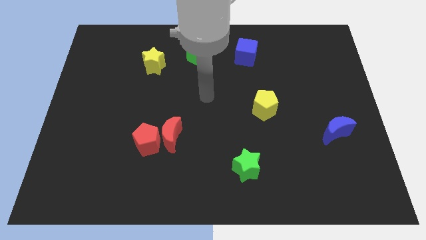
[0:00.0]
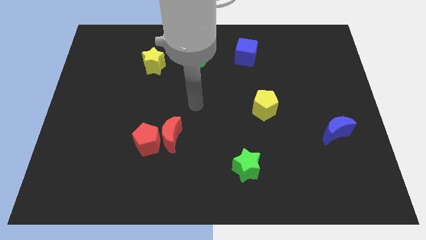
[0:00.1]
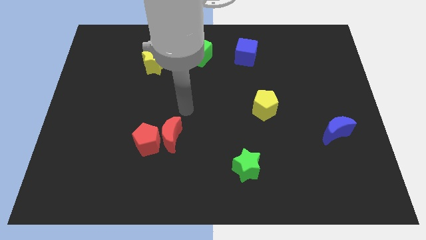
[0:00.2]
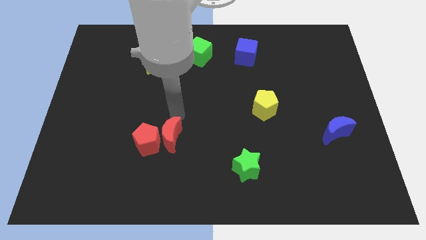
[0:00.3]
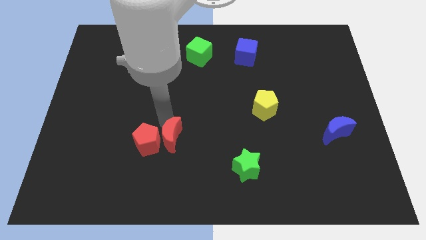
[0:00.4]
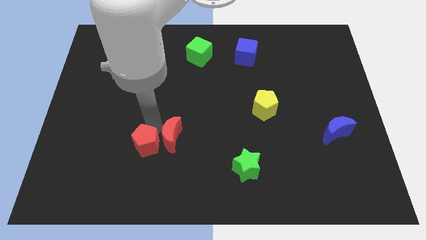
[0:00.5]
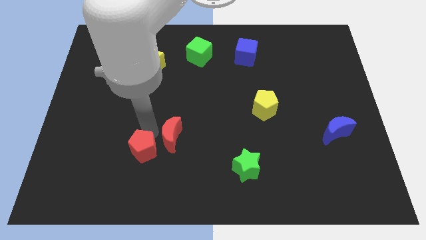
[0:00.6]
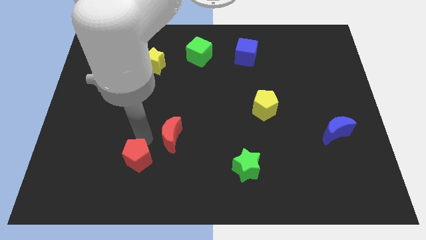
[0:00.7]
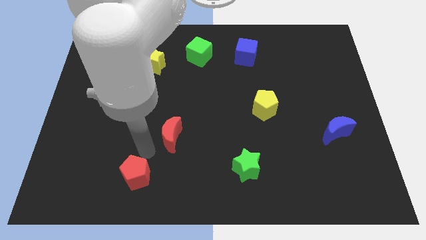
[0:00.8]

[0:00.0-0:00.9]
pull the red moon apart from the red pentagon

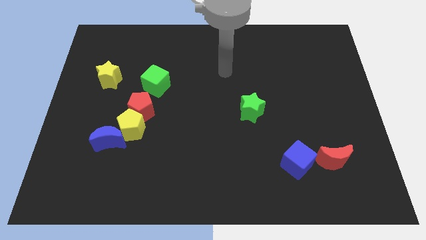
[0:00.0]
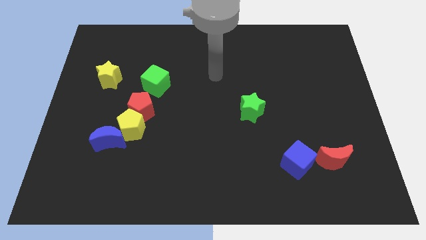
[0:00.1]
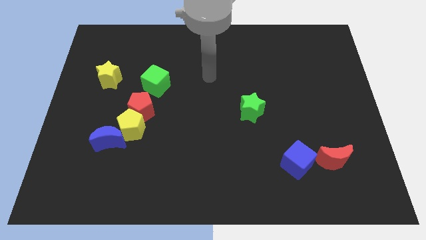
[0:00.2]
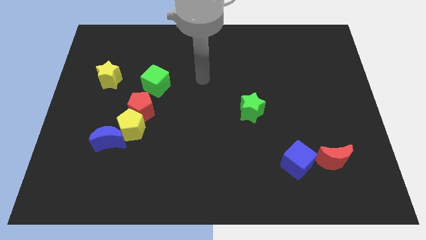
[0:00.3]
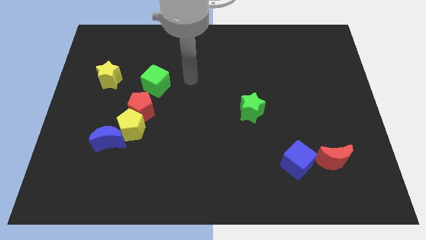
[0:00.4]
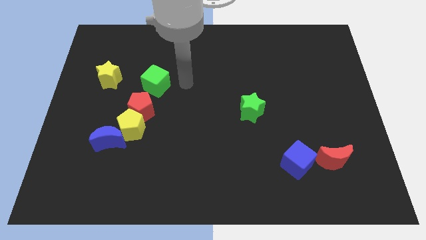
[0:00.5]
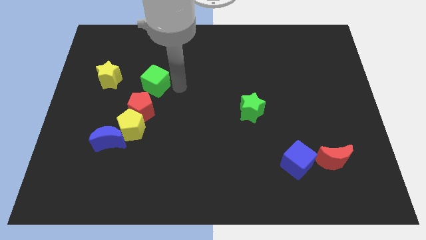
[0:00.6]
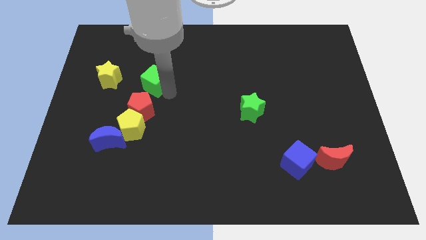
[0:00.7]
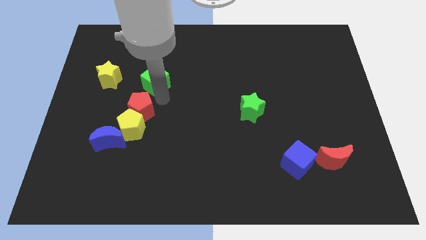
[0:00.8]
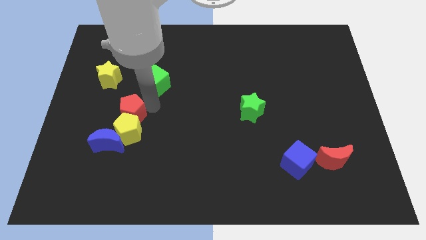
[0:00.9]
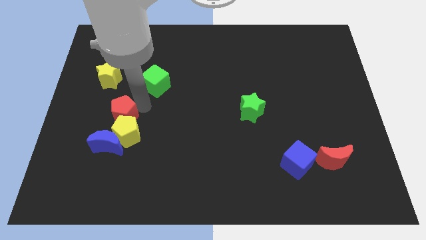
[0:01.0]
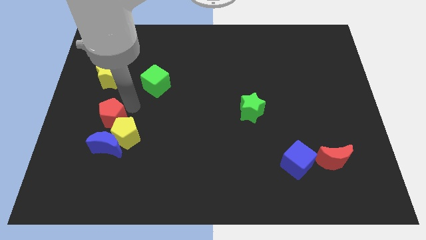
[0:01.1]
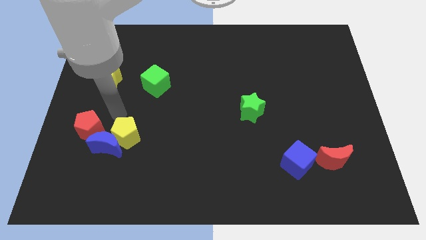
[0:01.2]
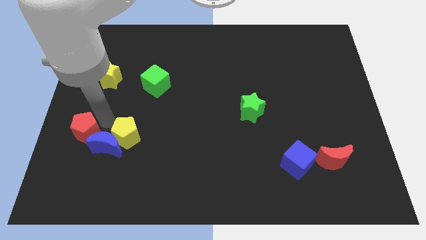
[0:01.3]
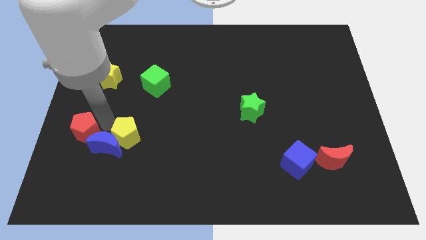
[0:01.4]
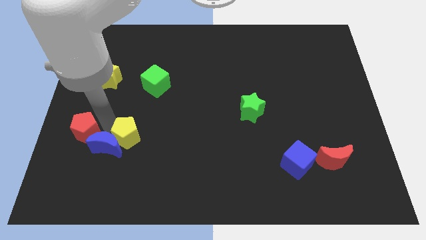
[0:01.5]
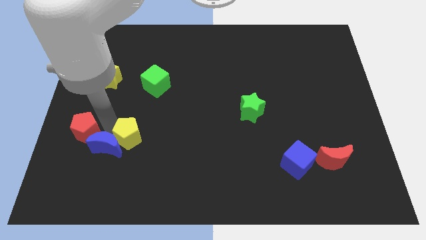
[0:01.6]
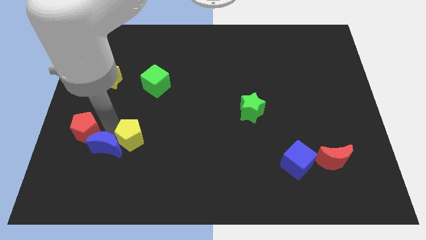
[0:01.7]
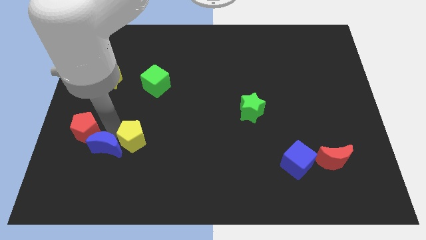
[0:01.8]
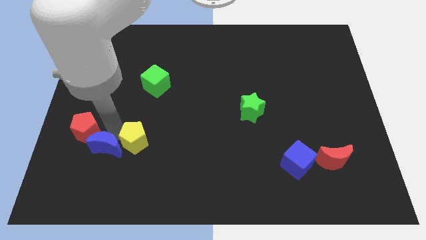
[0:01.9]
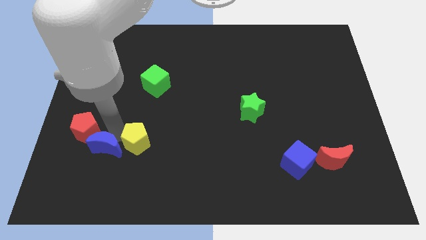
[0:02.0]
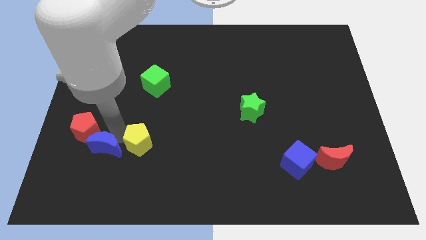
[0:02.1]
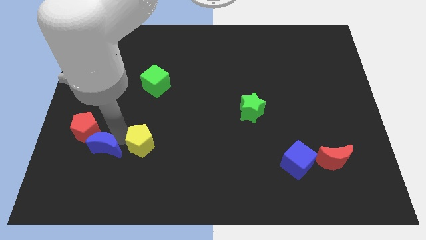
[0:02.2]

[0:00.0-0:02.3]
move the yellow pentagon away from the red pentagon and blue moon

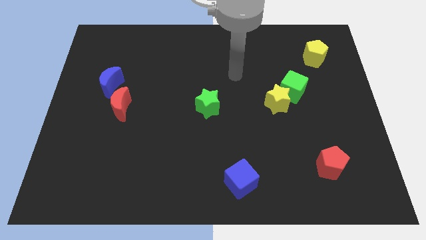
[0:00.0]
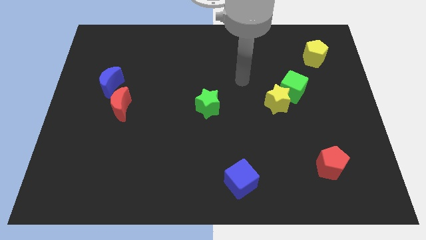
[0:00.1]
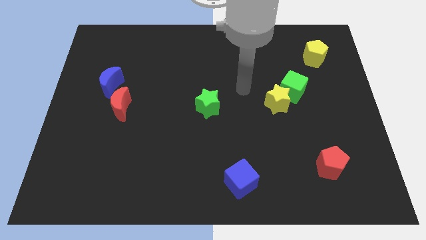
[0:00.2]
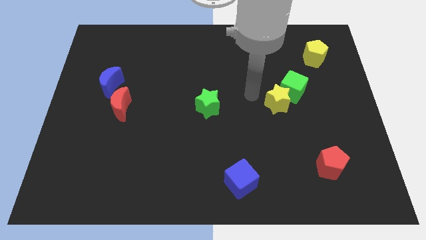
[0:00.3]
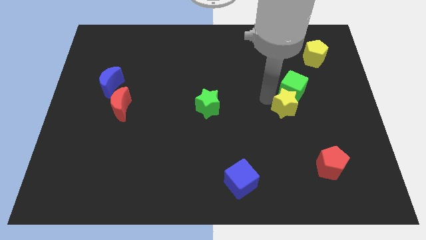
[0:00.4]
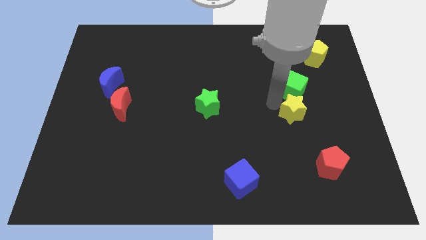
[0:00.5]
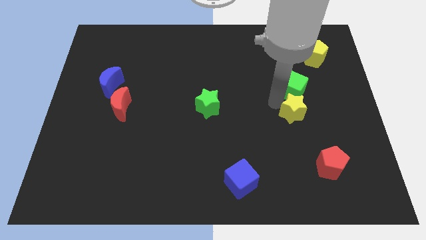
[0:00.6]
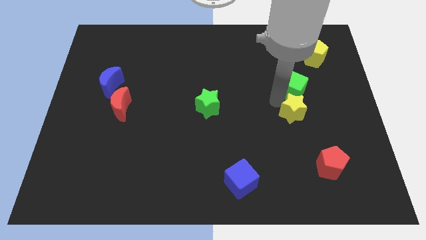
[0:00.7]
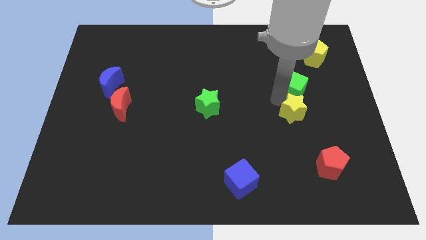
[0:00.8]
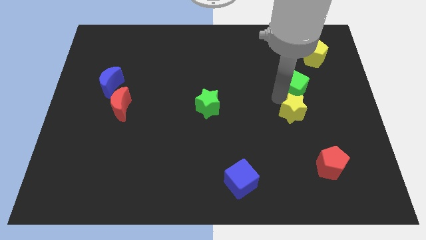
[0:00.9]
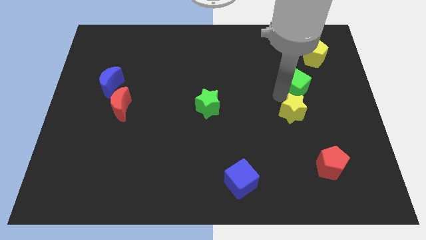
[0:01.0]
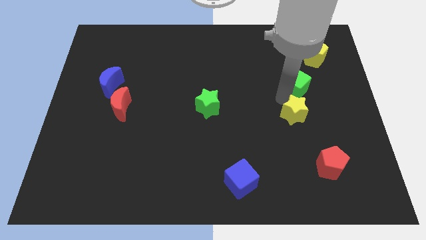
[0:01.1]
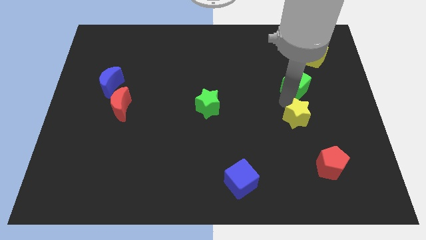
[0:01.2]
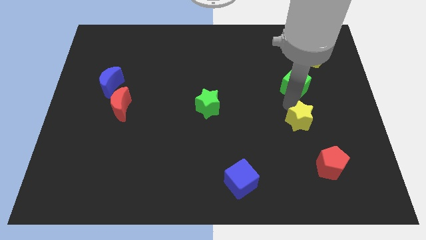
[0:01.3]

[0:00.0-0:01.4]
pull the green cube apart from the yellow star

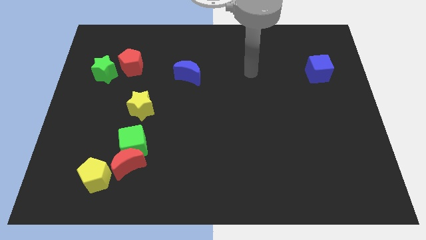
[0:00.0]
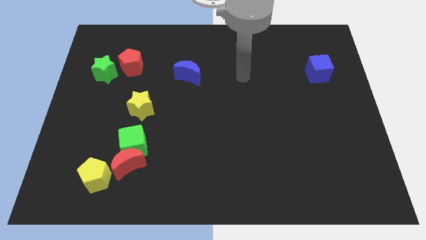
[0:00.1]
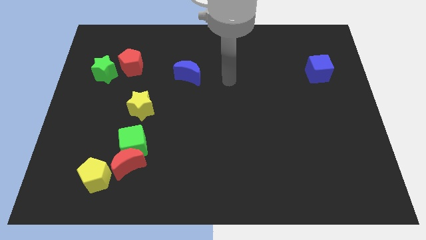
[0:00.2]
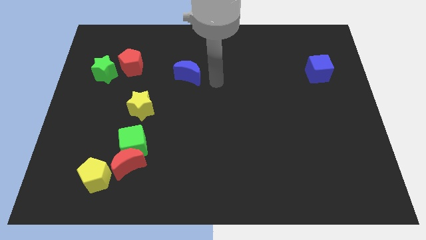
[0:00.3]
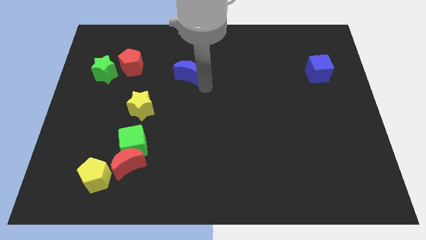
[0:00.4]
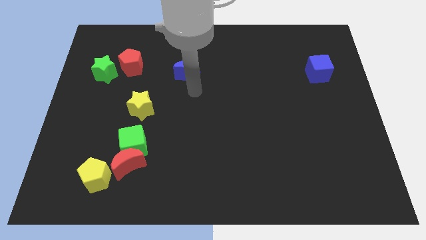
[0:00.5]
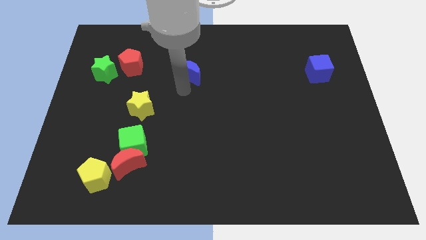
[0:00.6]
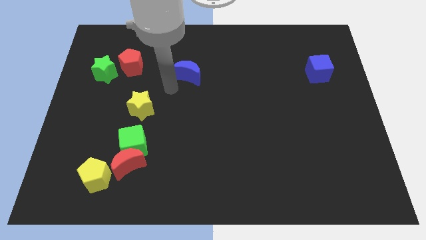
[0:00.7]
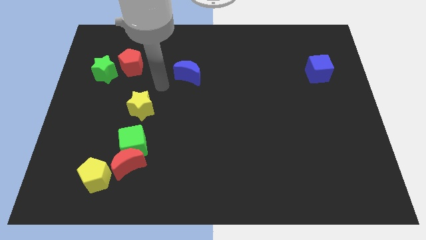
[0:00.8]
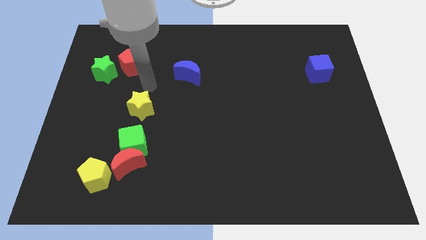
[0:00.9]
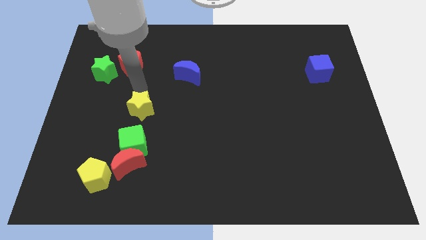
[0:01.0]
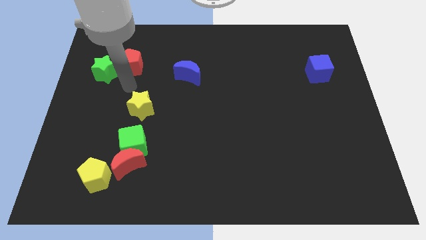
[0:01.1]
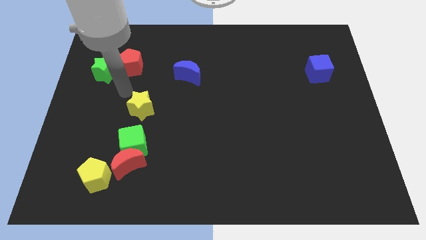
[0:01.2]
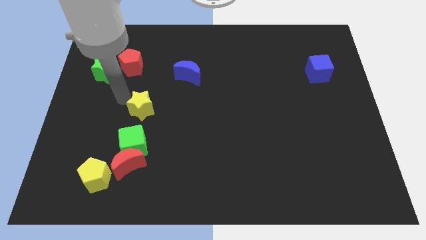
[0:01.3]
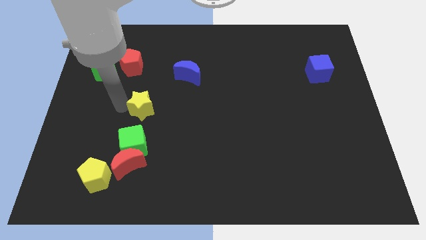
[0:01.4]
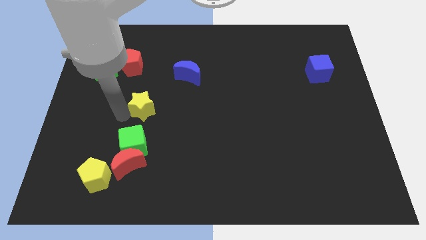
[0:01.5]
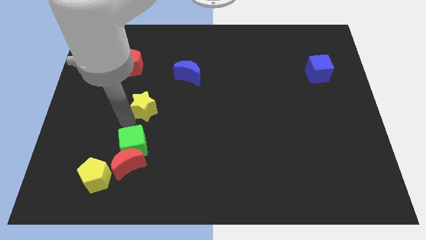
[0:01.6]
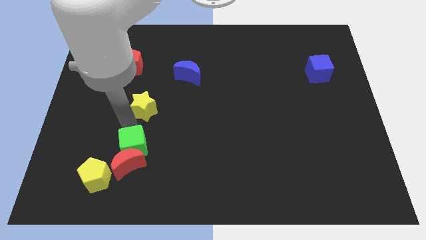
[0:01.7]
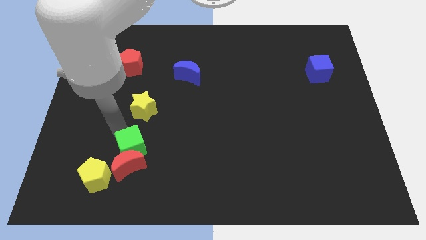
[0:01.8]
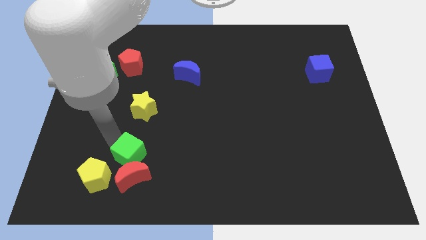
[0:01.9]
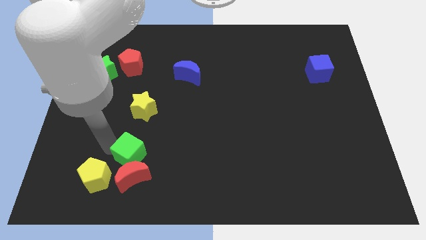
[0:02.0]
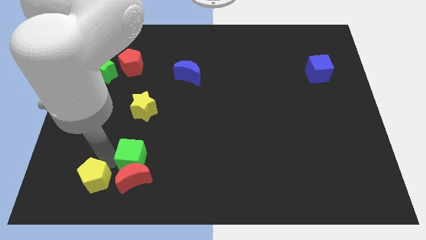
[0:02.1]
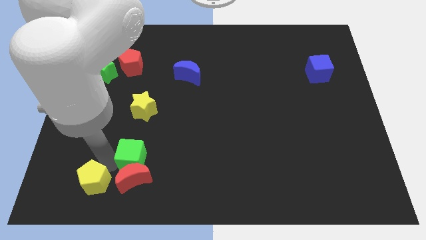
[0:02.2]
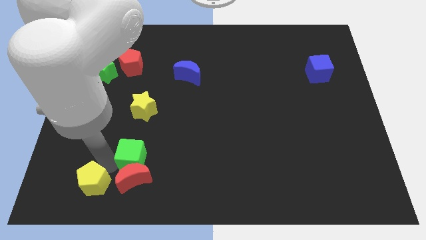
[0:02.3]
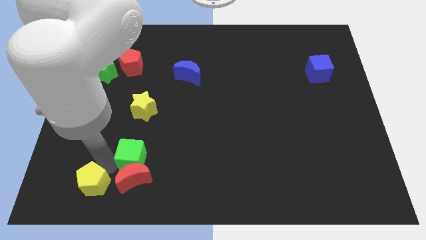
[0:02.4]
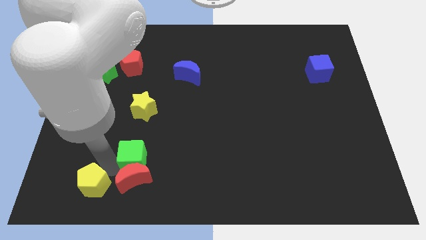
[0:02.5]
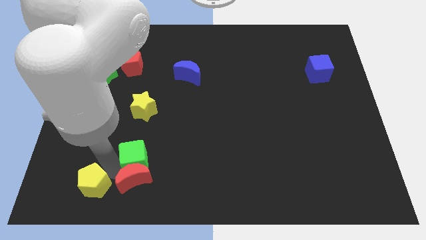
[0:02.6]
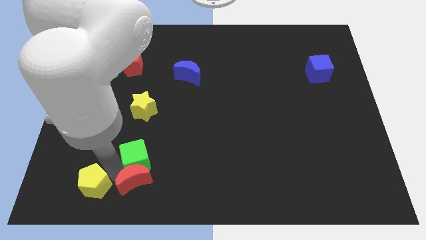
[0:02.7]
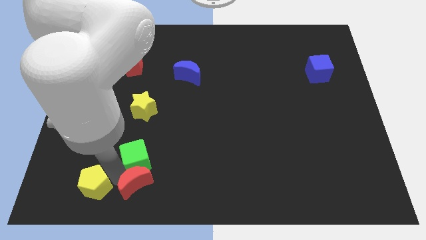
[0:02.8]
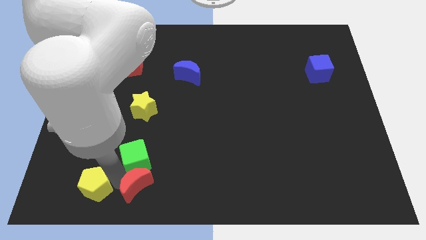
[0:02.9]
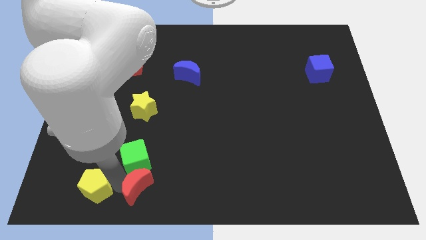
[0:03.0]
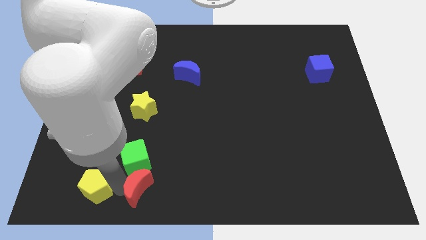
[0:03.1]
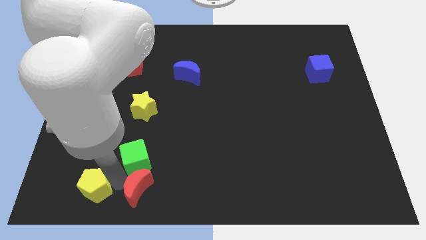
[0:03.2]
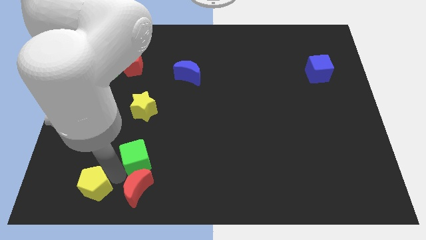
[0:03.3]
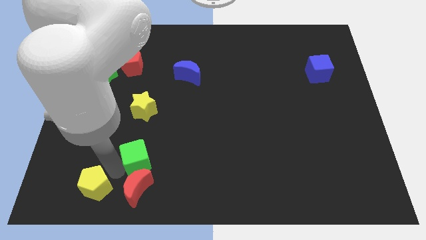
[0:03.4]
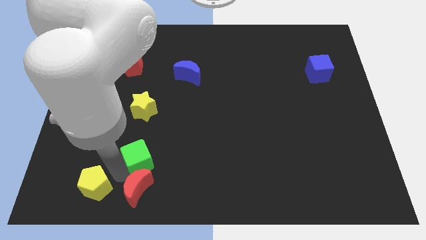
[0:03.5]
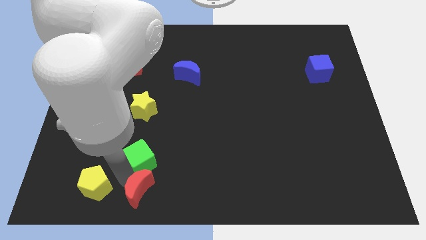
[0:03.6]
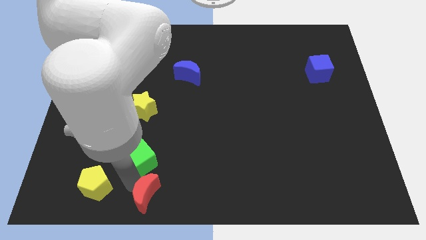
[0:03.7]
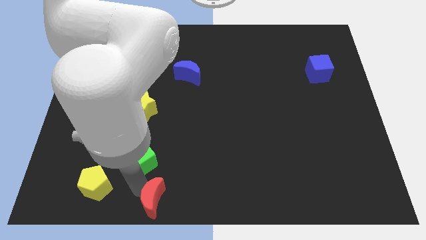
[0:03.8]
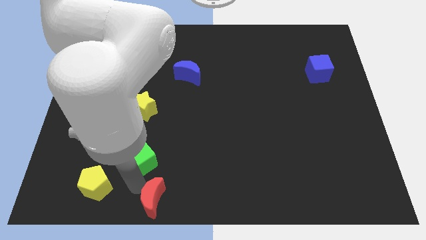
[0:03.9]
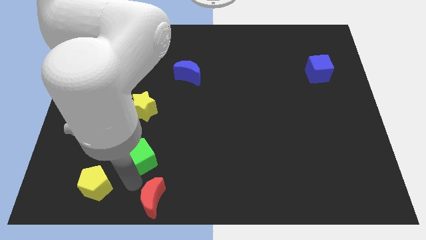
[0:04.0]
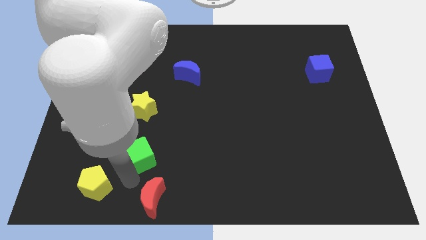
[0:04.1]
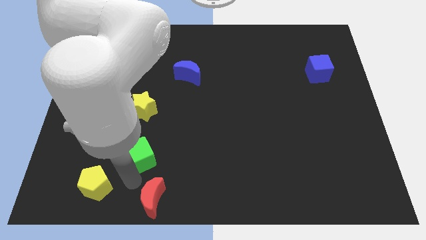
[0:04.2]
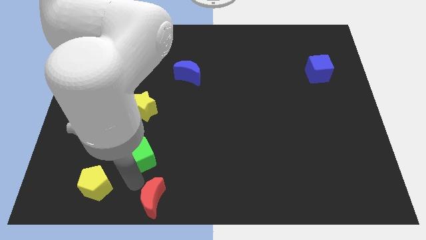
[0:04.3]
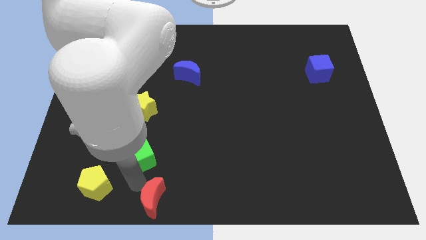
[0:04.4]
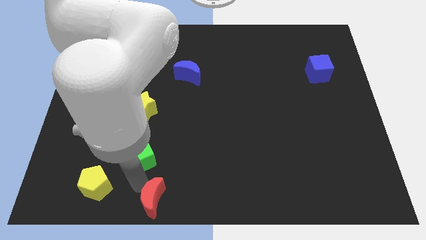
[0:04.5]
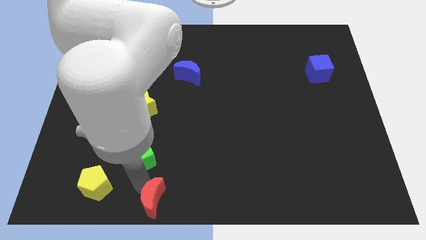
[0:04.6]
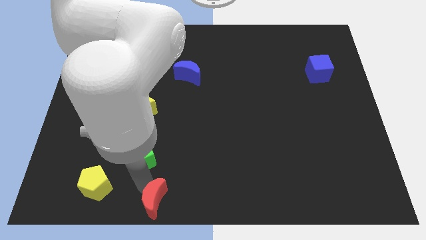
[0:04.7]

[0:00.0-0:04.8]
move the red moon away from the green cube and yellow pentagon
